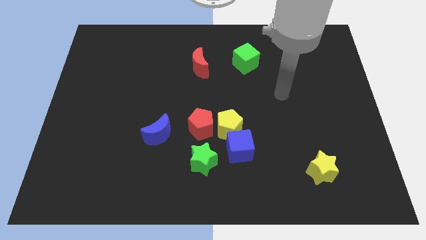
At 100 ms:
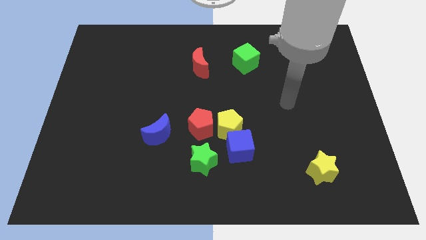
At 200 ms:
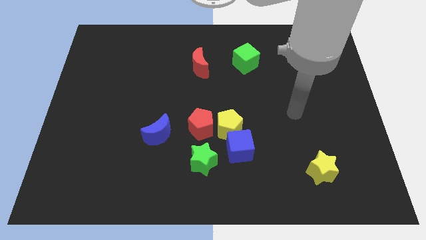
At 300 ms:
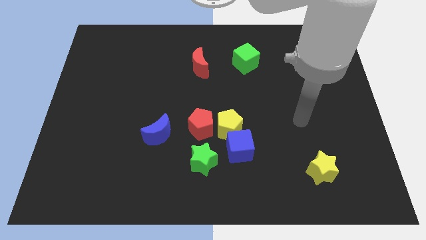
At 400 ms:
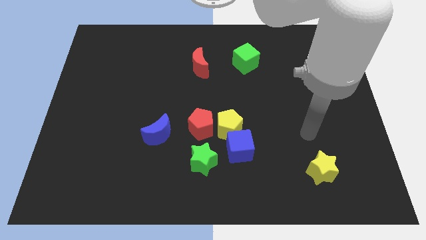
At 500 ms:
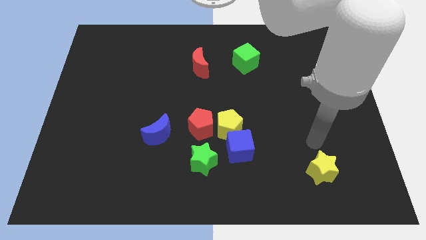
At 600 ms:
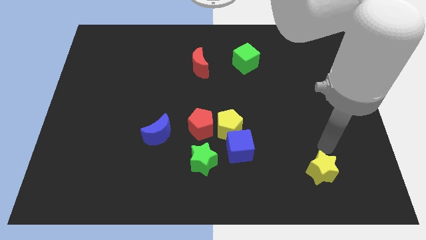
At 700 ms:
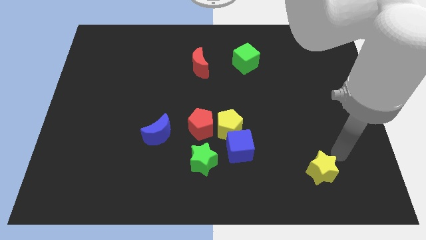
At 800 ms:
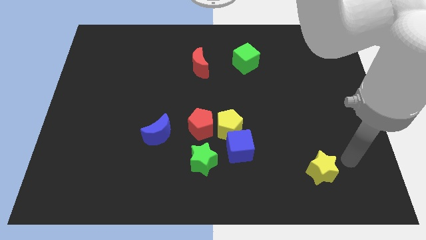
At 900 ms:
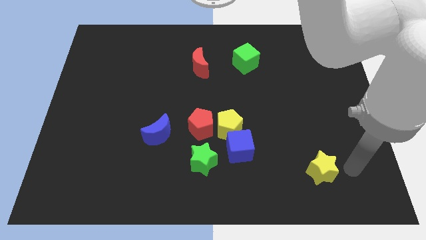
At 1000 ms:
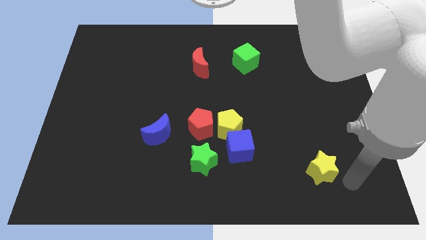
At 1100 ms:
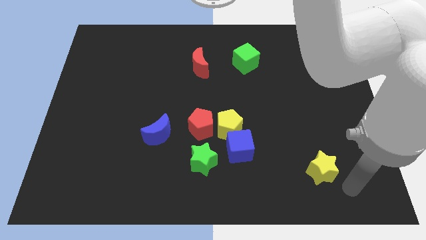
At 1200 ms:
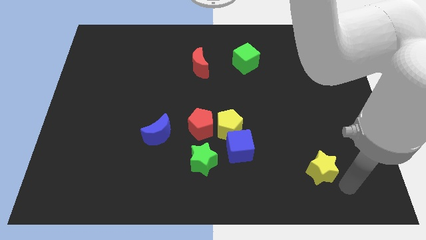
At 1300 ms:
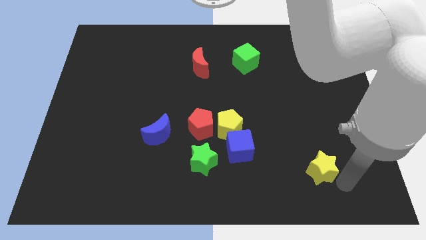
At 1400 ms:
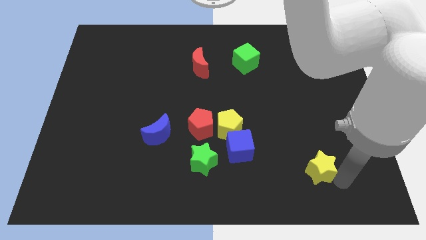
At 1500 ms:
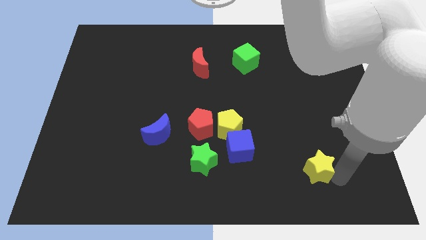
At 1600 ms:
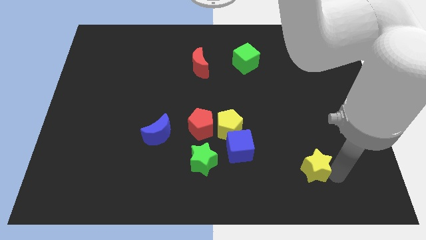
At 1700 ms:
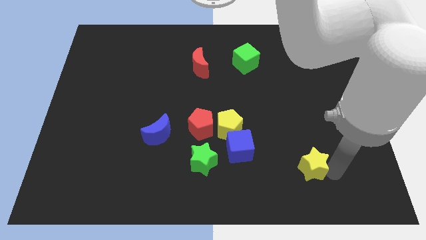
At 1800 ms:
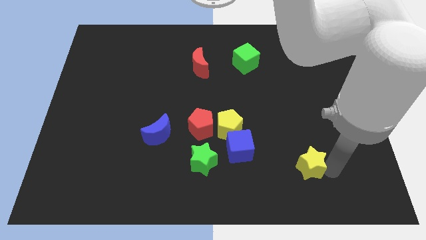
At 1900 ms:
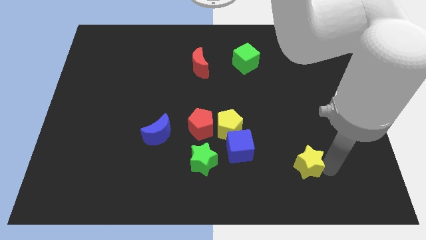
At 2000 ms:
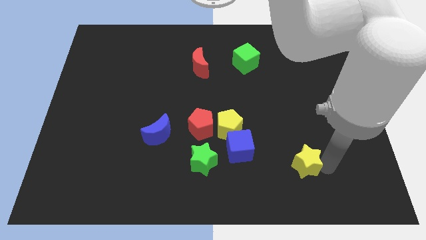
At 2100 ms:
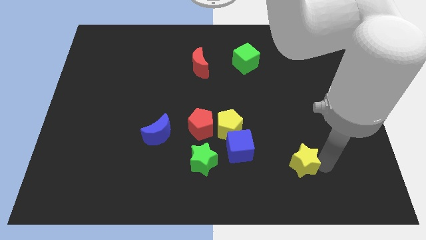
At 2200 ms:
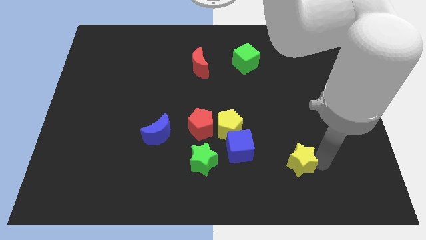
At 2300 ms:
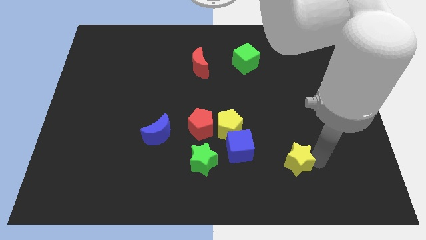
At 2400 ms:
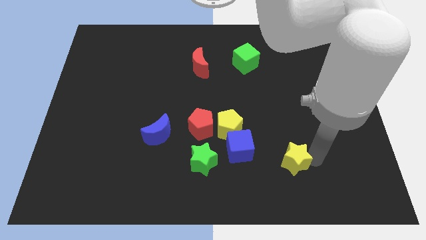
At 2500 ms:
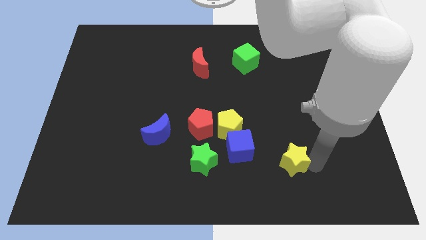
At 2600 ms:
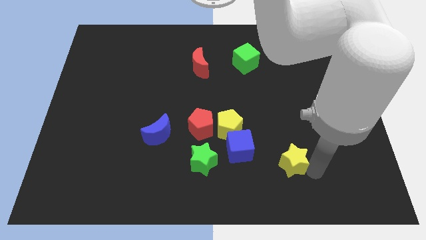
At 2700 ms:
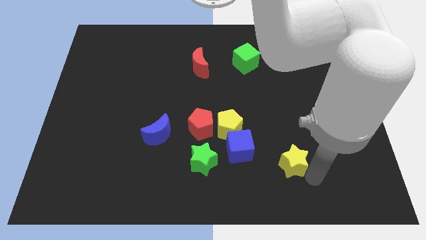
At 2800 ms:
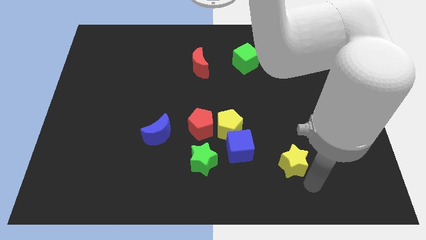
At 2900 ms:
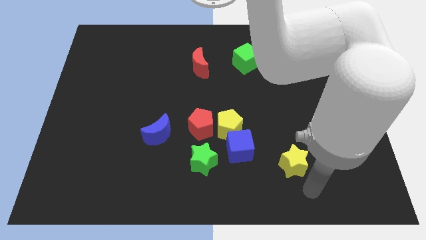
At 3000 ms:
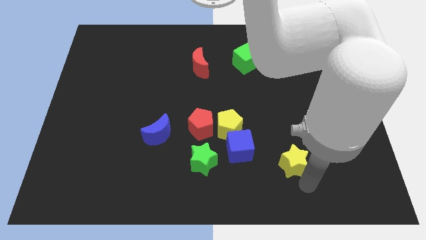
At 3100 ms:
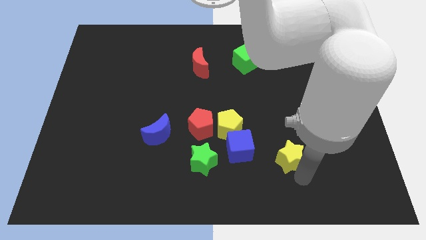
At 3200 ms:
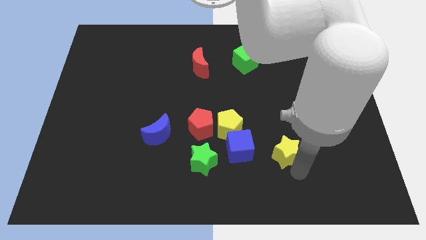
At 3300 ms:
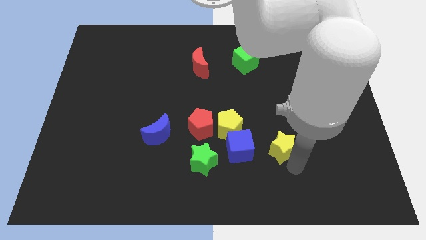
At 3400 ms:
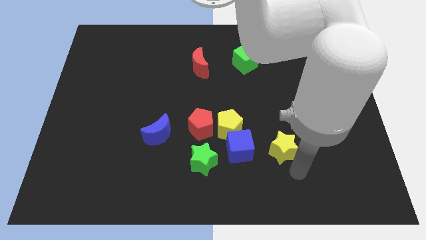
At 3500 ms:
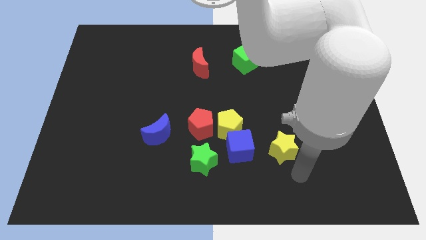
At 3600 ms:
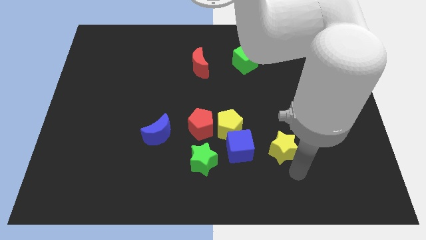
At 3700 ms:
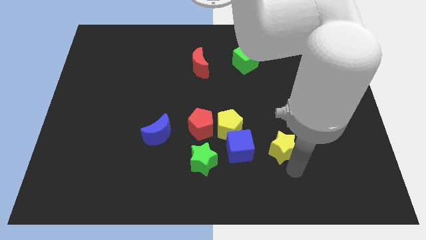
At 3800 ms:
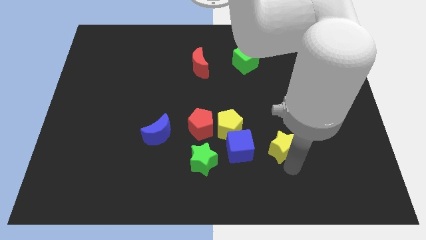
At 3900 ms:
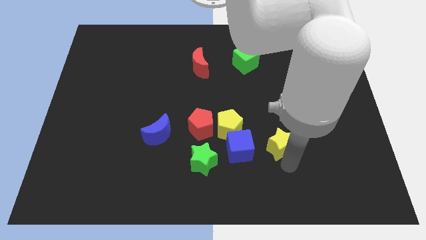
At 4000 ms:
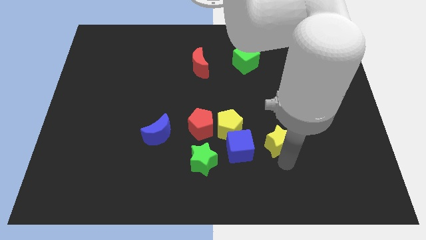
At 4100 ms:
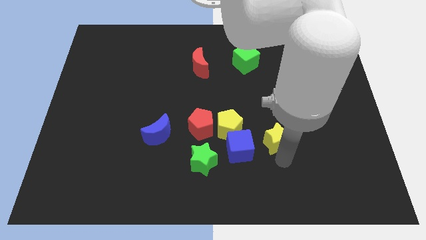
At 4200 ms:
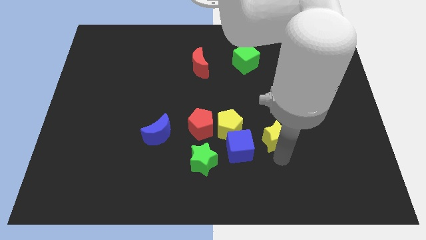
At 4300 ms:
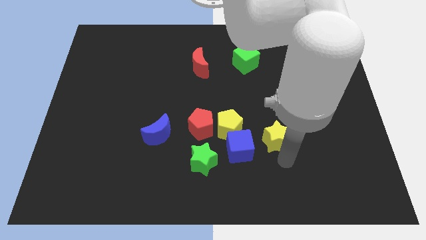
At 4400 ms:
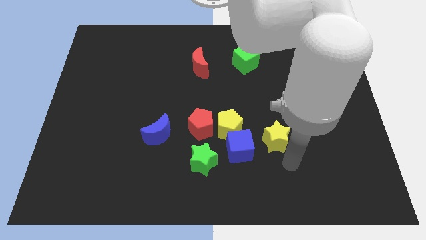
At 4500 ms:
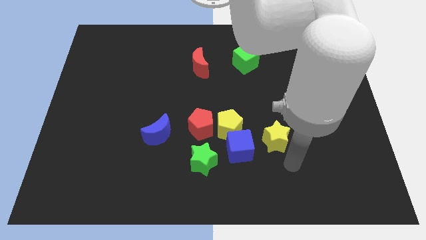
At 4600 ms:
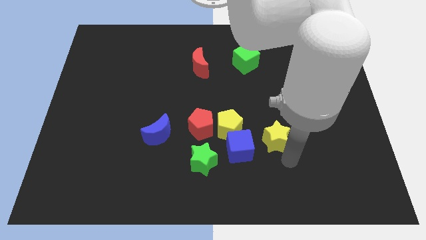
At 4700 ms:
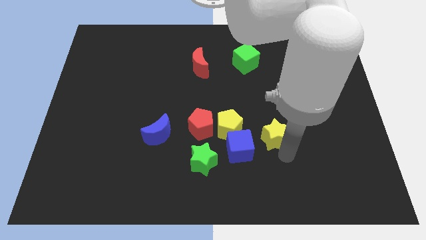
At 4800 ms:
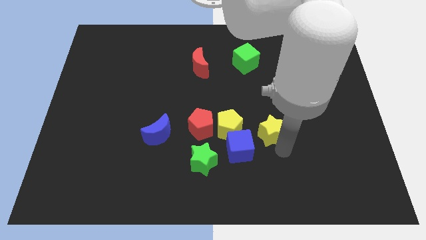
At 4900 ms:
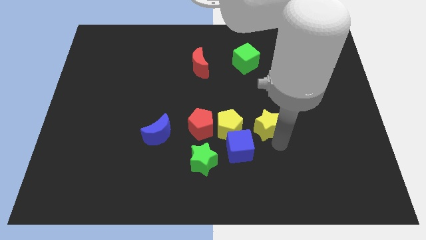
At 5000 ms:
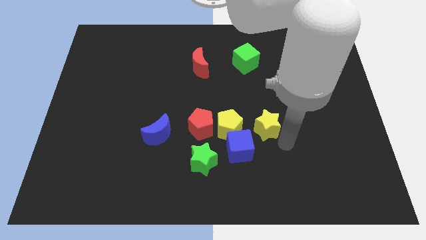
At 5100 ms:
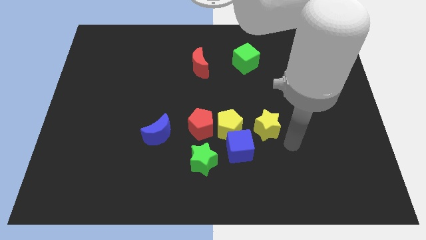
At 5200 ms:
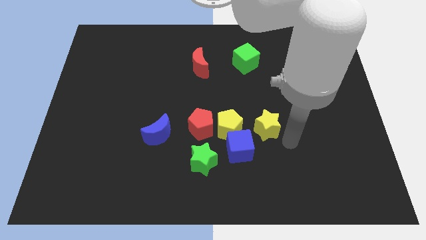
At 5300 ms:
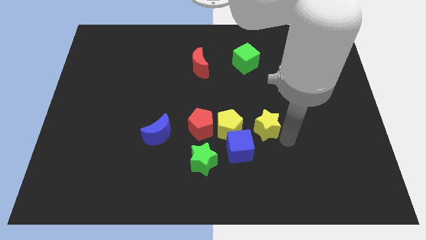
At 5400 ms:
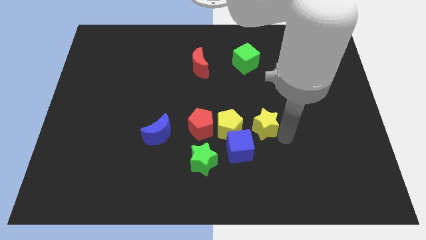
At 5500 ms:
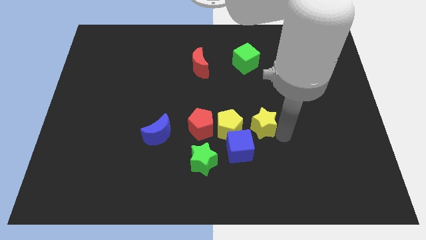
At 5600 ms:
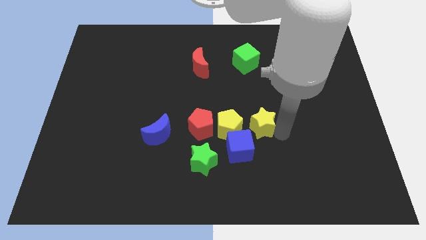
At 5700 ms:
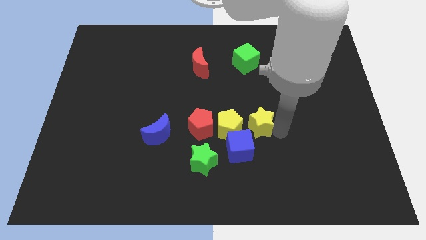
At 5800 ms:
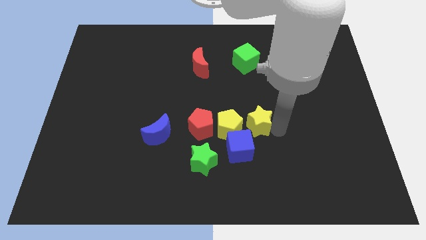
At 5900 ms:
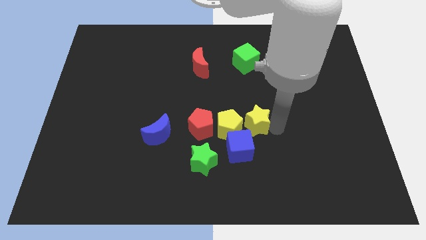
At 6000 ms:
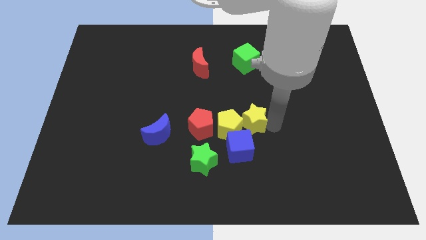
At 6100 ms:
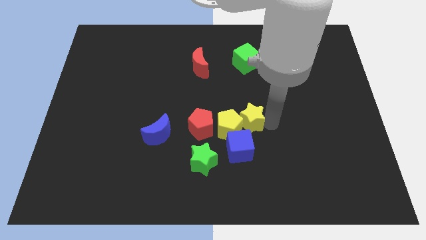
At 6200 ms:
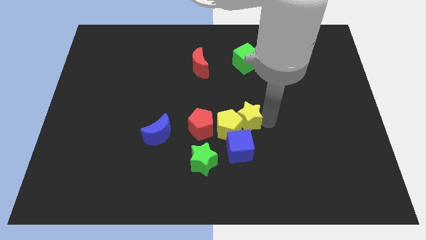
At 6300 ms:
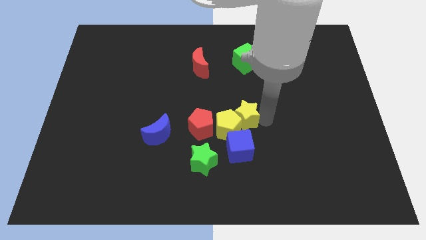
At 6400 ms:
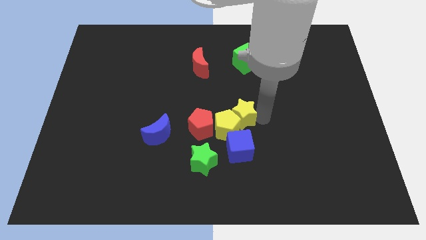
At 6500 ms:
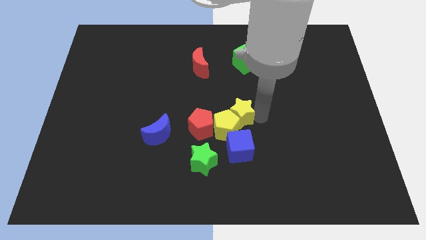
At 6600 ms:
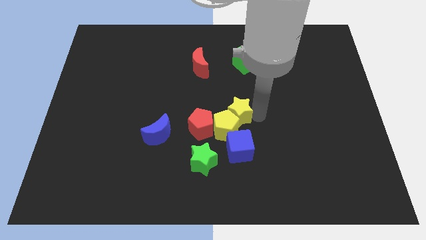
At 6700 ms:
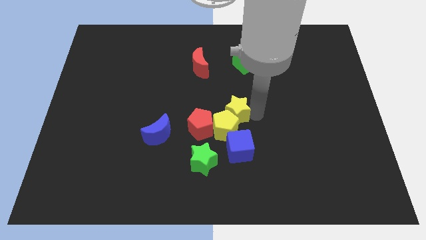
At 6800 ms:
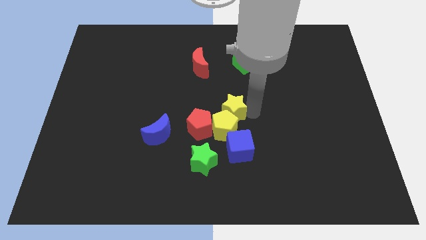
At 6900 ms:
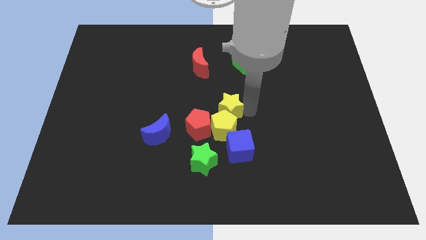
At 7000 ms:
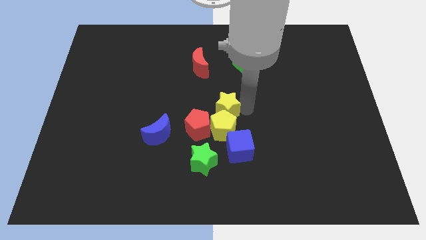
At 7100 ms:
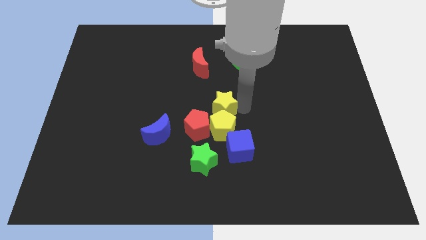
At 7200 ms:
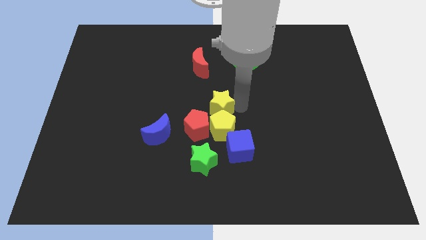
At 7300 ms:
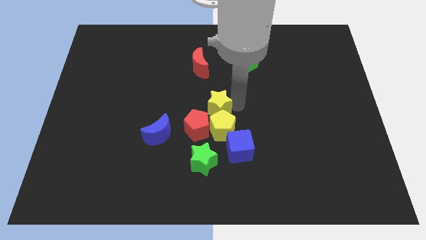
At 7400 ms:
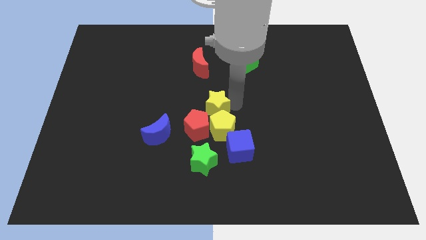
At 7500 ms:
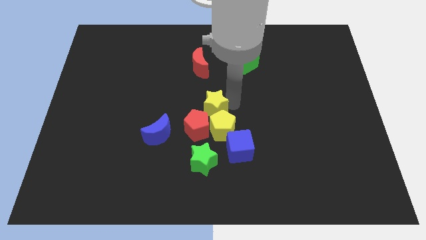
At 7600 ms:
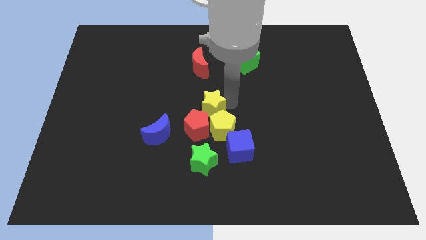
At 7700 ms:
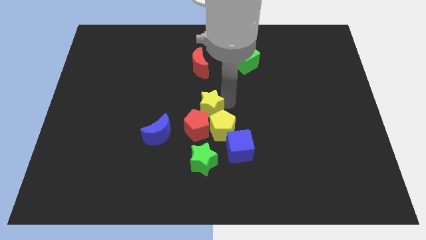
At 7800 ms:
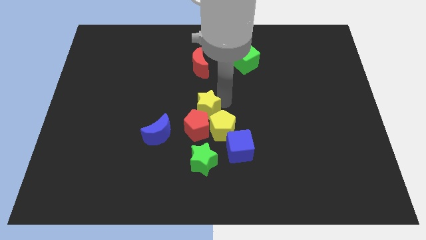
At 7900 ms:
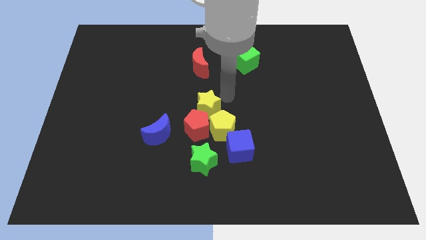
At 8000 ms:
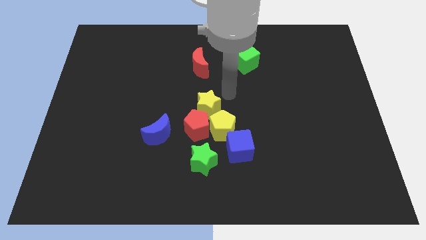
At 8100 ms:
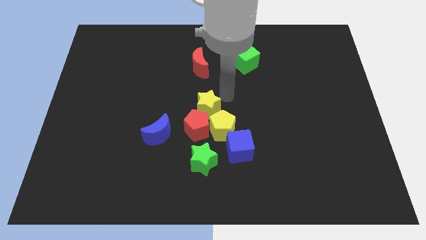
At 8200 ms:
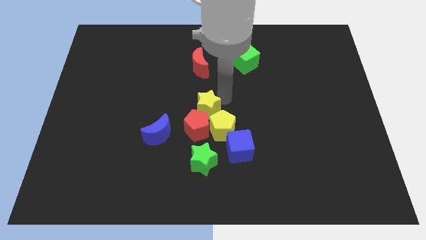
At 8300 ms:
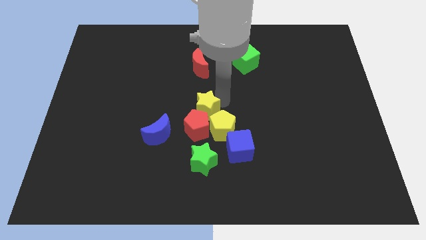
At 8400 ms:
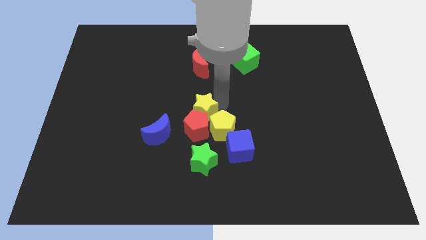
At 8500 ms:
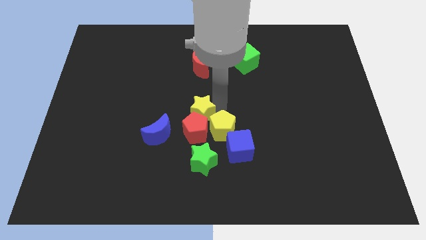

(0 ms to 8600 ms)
move the yellow star left of the yellow pentagon
